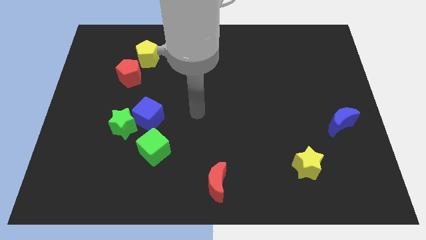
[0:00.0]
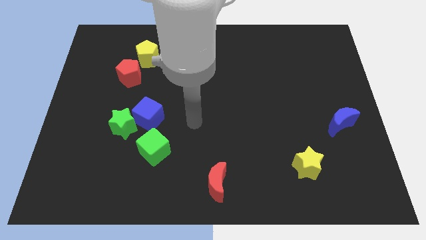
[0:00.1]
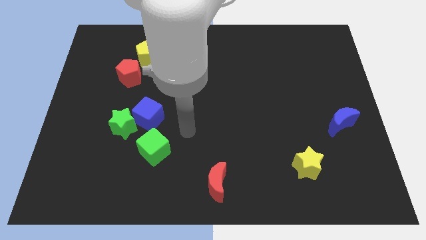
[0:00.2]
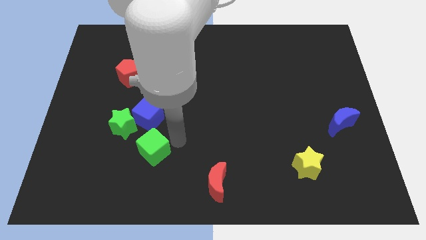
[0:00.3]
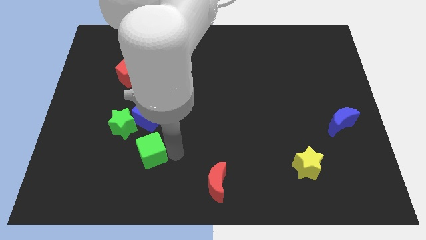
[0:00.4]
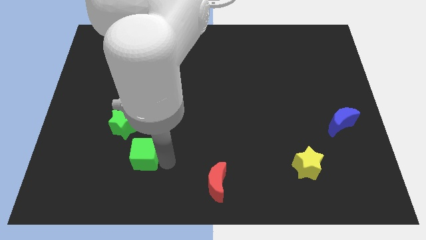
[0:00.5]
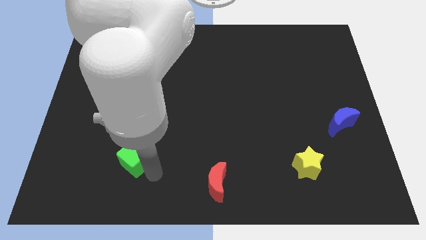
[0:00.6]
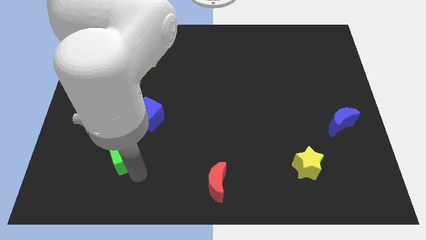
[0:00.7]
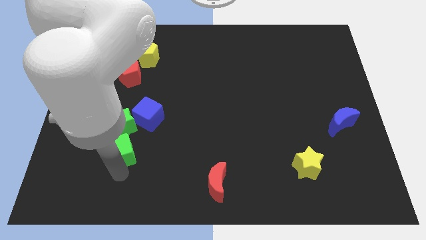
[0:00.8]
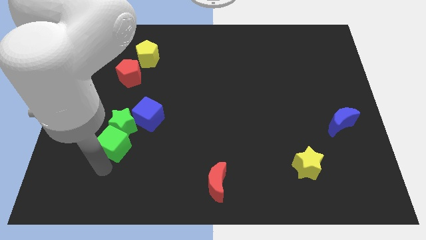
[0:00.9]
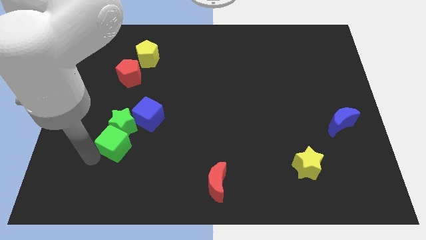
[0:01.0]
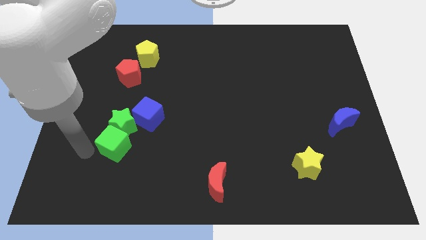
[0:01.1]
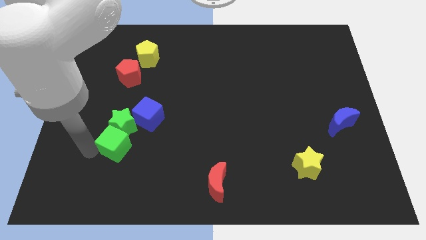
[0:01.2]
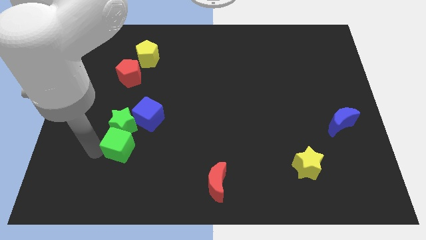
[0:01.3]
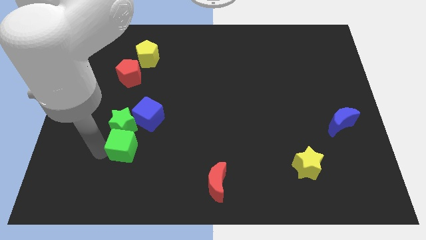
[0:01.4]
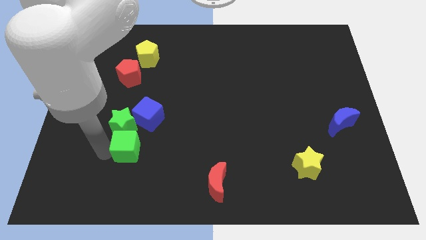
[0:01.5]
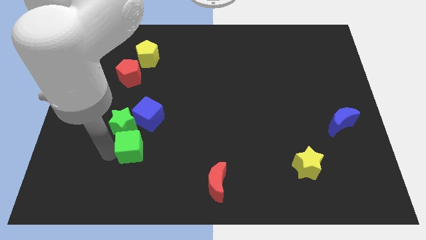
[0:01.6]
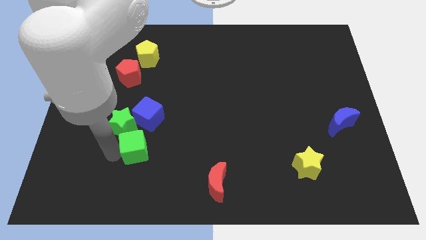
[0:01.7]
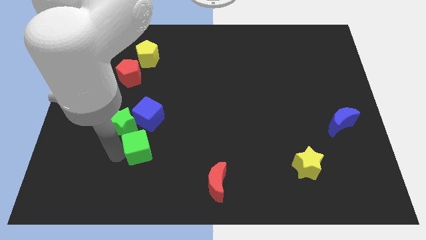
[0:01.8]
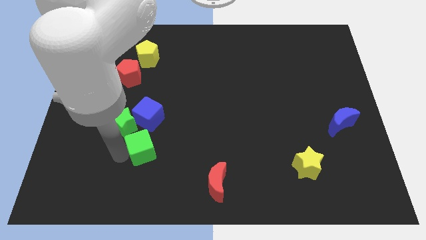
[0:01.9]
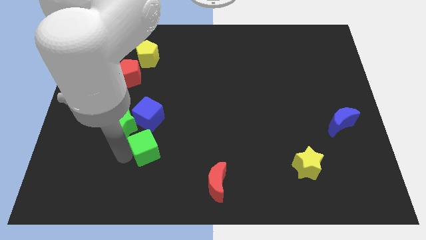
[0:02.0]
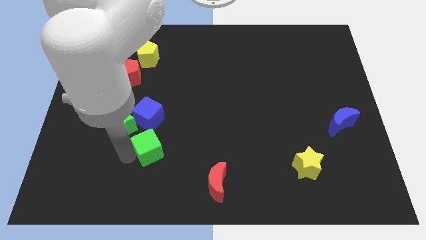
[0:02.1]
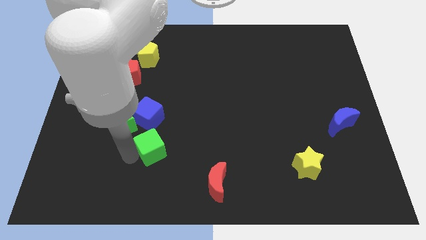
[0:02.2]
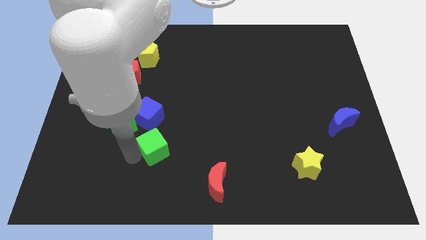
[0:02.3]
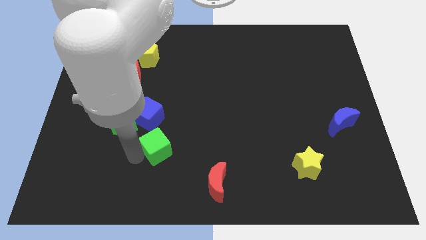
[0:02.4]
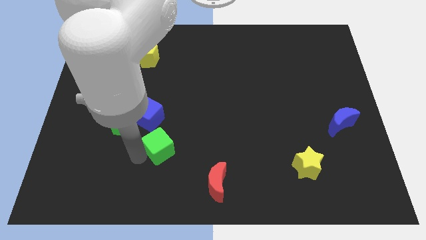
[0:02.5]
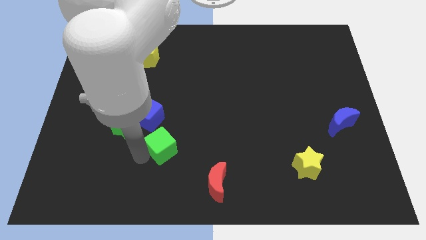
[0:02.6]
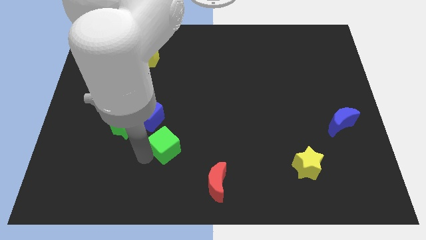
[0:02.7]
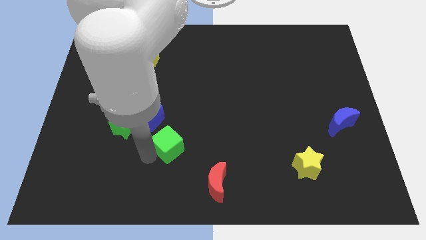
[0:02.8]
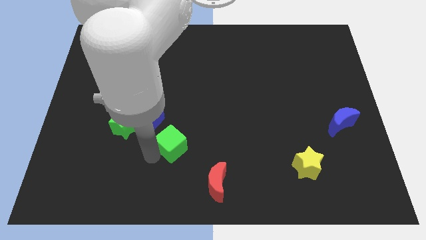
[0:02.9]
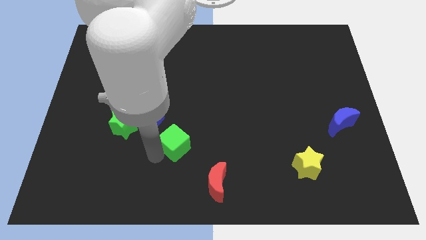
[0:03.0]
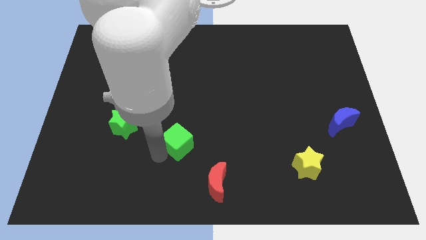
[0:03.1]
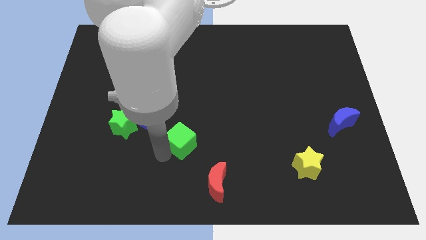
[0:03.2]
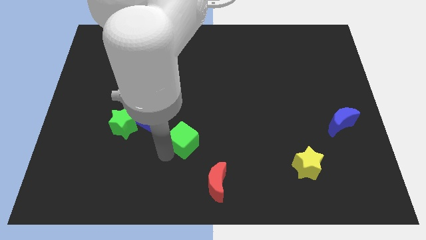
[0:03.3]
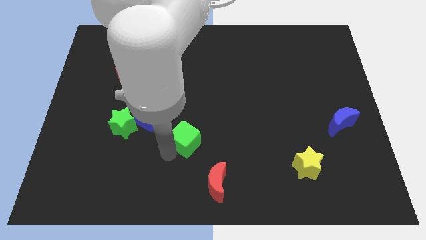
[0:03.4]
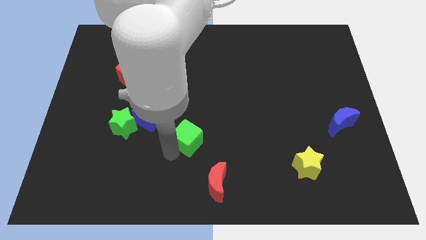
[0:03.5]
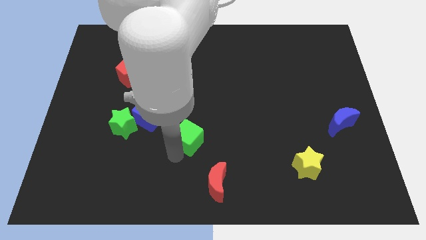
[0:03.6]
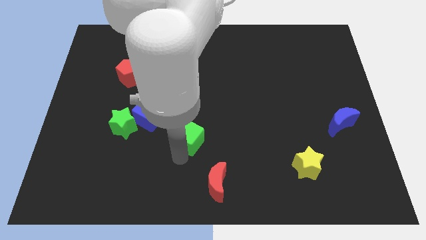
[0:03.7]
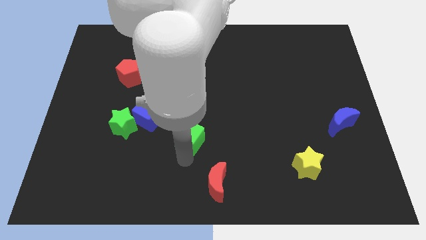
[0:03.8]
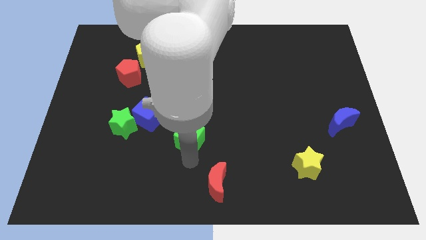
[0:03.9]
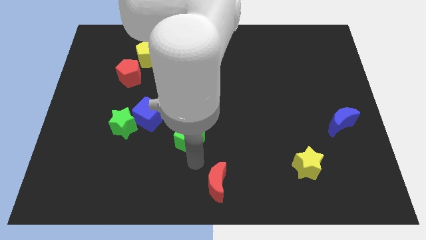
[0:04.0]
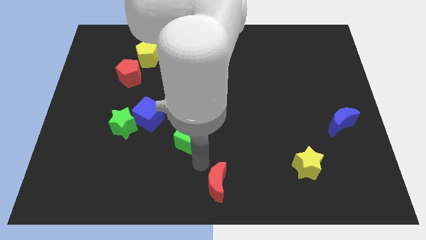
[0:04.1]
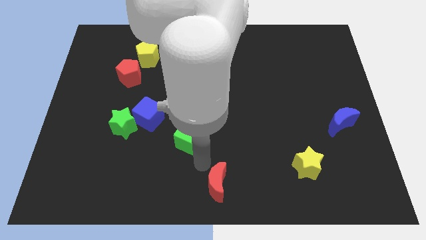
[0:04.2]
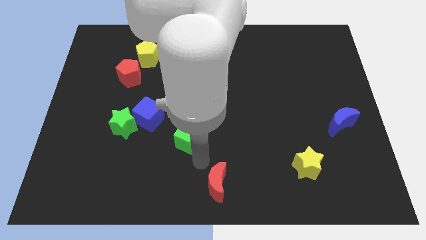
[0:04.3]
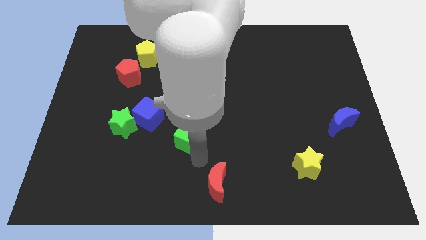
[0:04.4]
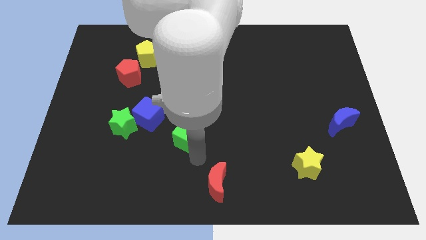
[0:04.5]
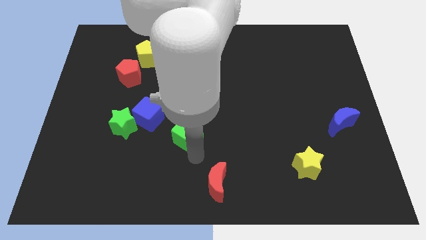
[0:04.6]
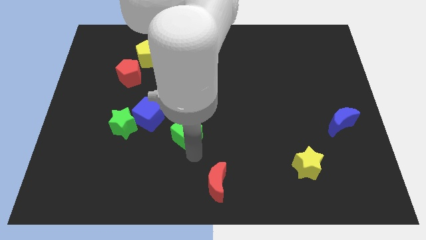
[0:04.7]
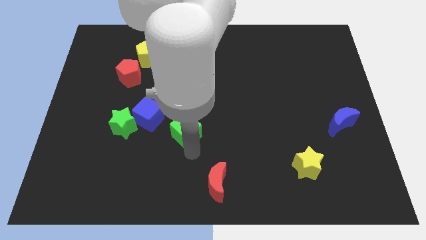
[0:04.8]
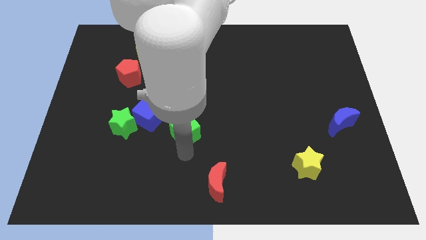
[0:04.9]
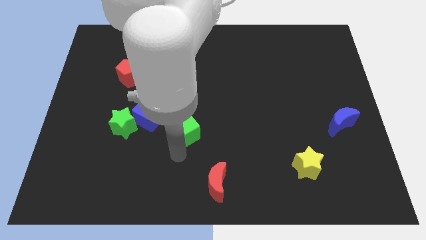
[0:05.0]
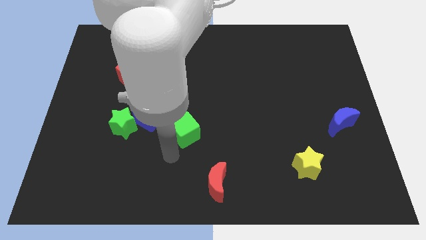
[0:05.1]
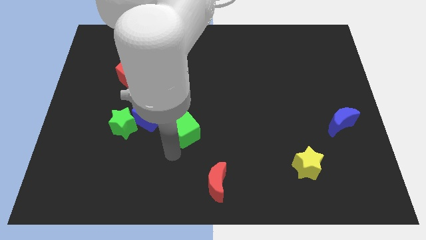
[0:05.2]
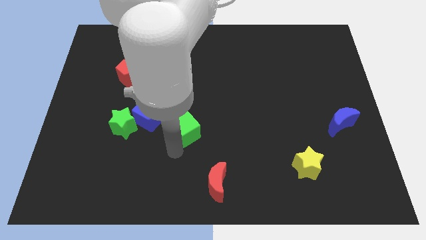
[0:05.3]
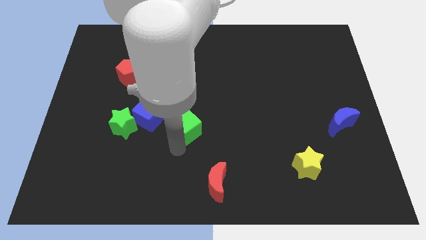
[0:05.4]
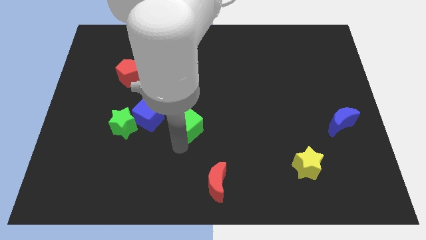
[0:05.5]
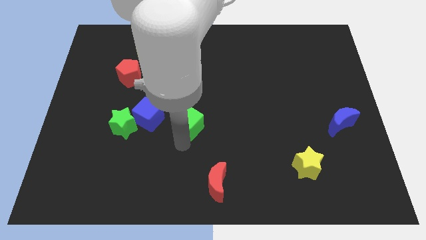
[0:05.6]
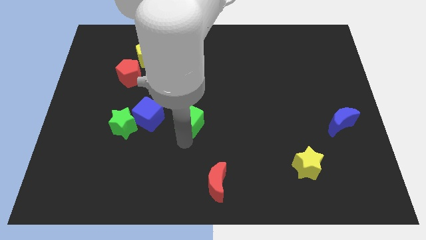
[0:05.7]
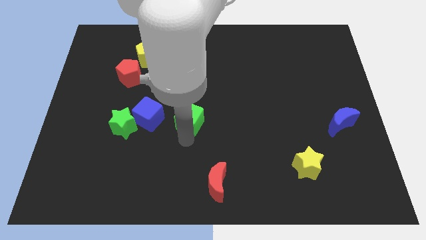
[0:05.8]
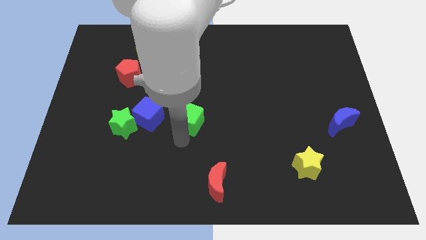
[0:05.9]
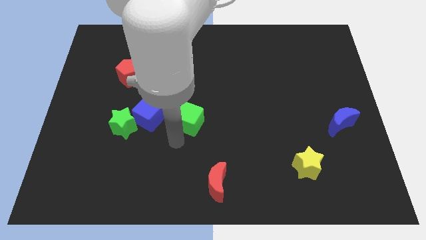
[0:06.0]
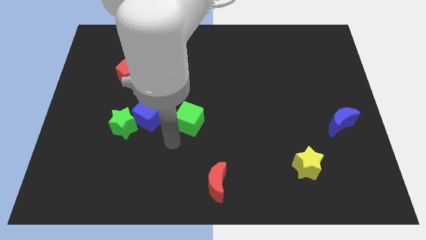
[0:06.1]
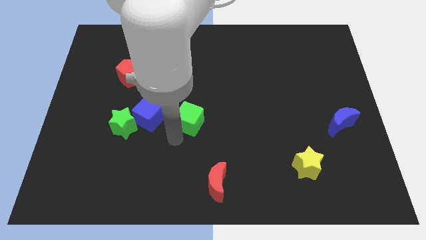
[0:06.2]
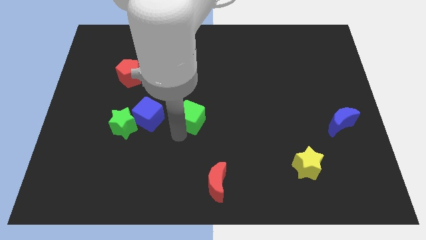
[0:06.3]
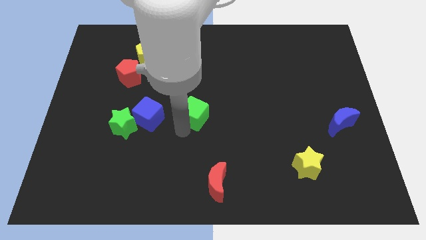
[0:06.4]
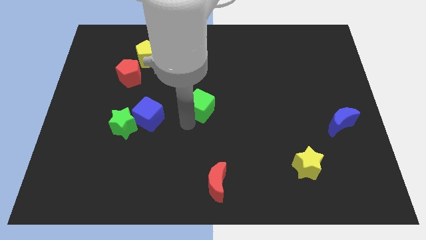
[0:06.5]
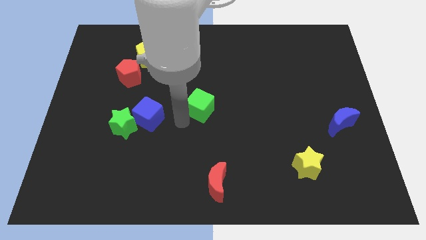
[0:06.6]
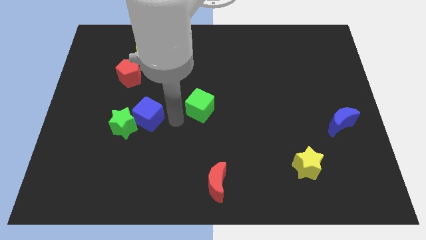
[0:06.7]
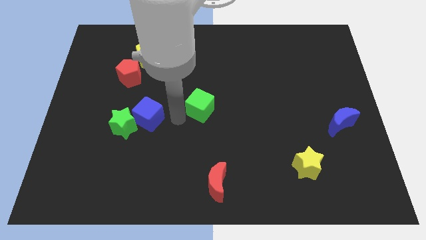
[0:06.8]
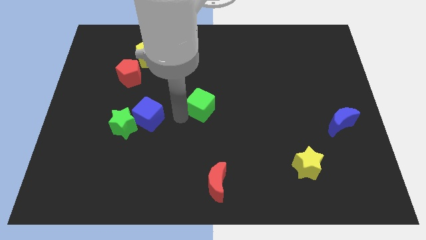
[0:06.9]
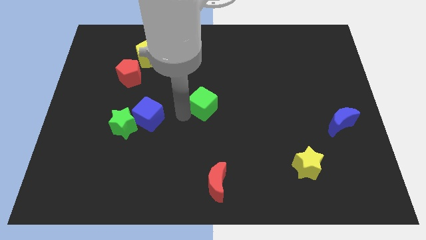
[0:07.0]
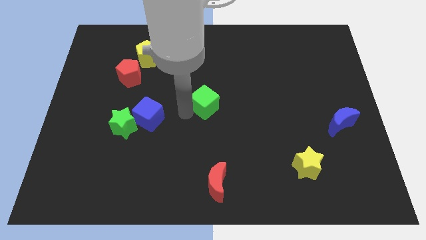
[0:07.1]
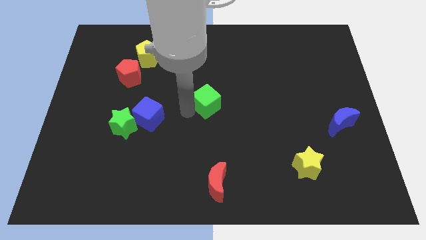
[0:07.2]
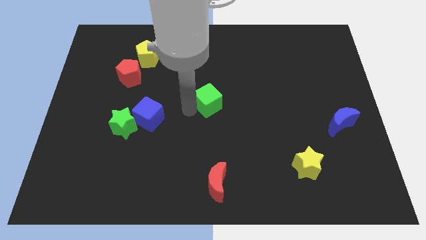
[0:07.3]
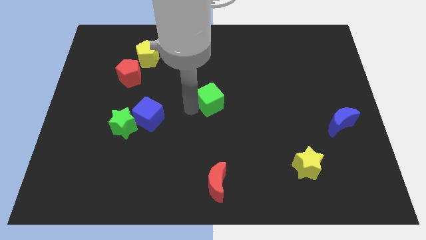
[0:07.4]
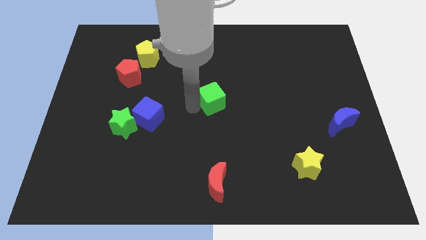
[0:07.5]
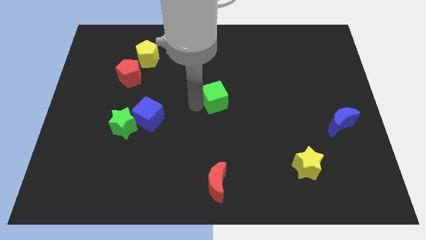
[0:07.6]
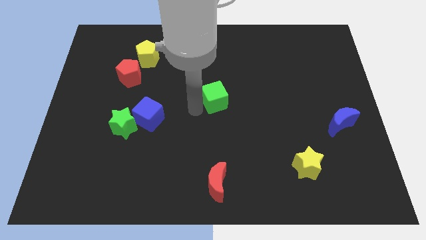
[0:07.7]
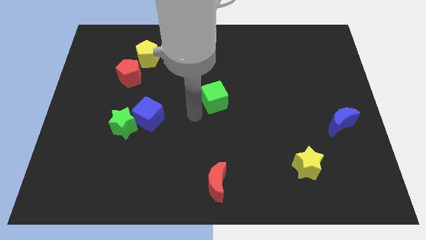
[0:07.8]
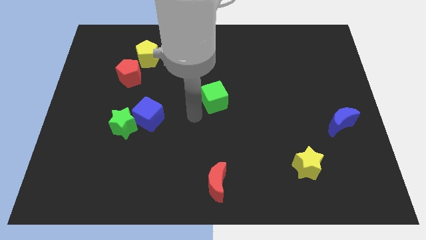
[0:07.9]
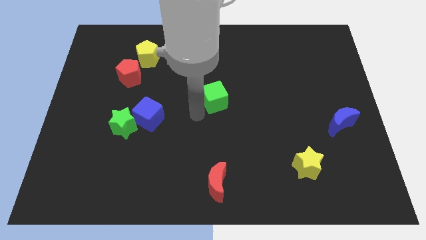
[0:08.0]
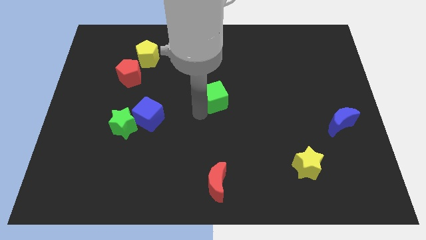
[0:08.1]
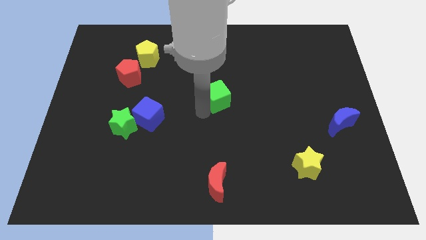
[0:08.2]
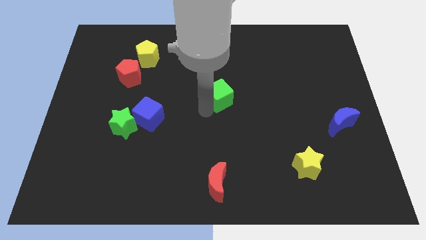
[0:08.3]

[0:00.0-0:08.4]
move the green cube upwards and right
